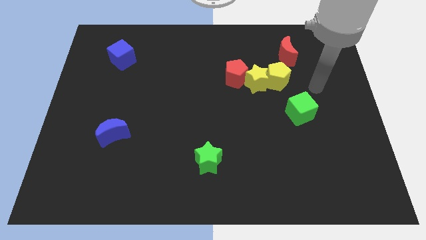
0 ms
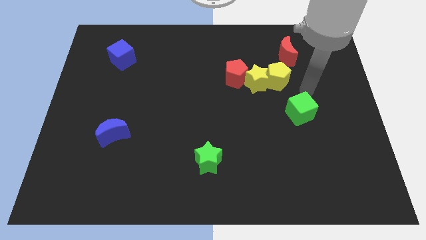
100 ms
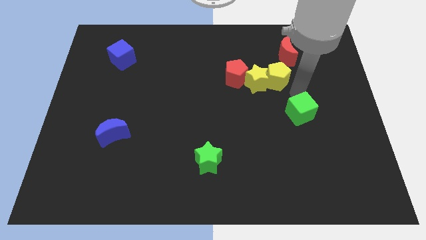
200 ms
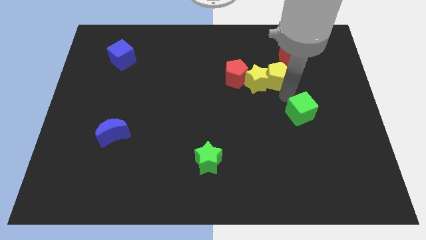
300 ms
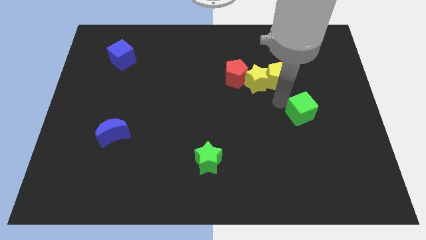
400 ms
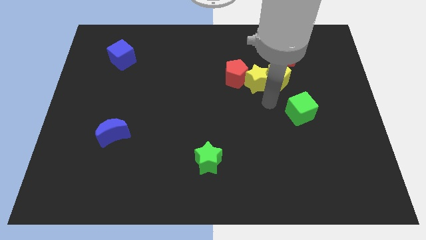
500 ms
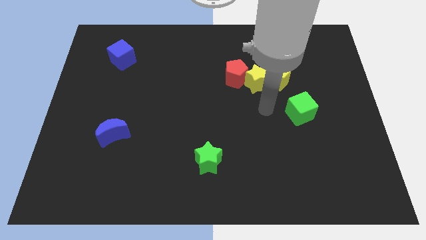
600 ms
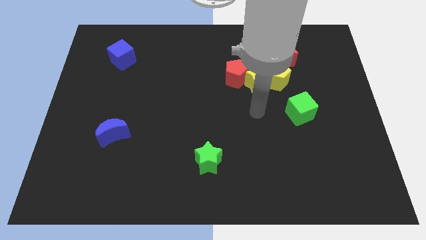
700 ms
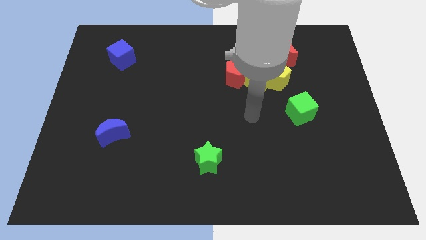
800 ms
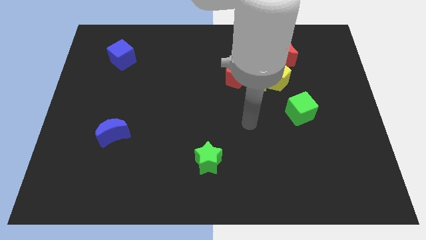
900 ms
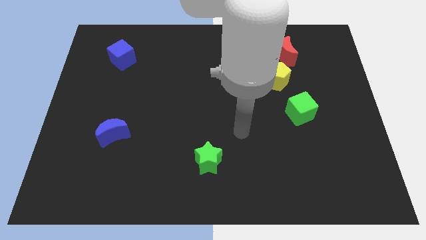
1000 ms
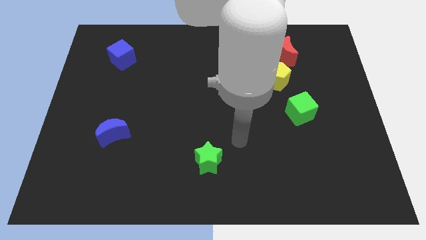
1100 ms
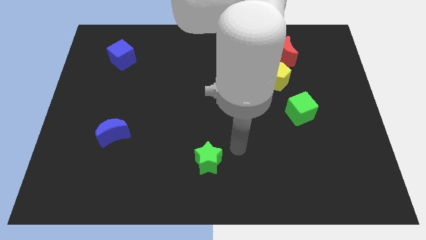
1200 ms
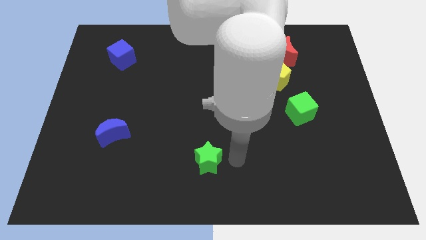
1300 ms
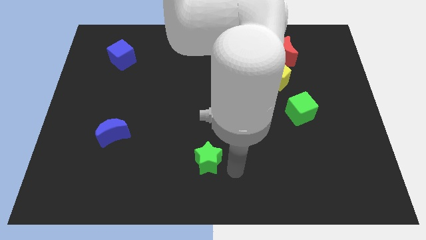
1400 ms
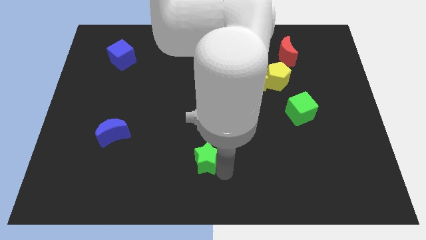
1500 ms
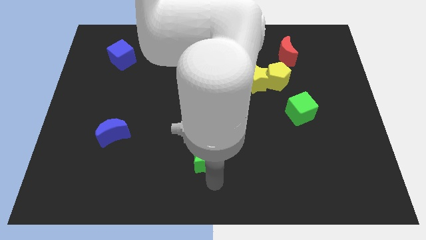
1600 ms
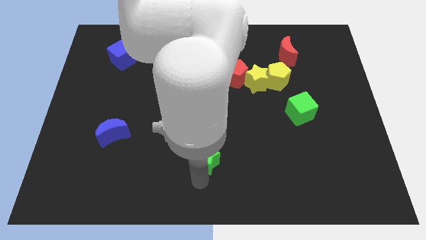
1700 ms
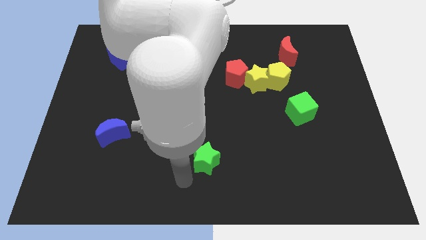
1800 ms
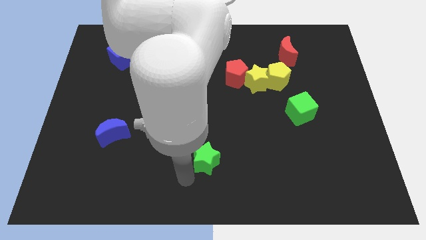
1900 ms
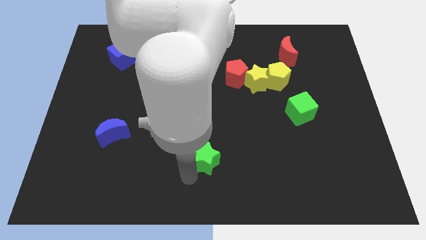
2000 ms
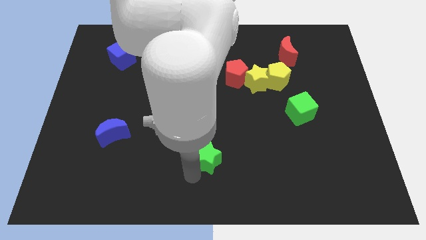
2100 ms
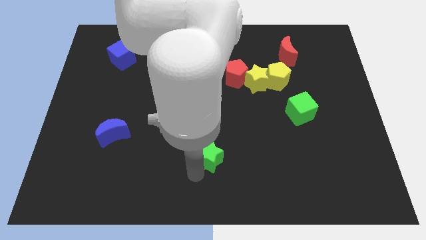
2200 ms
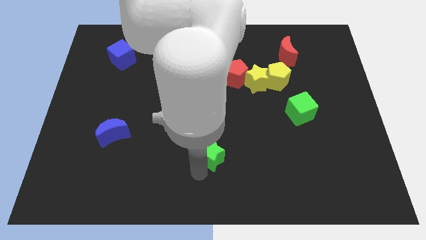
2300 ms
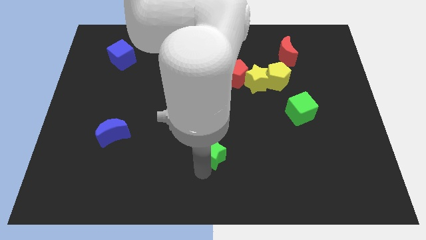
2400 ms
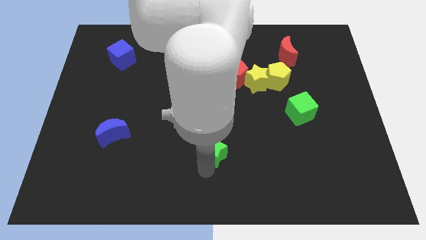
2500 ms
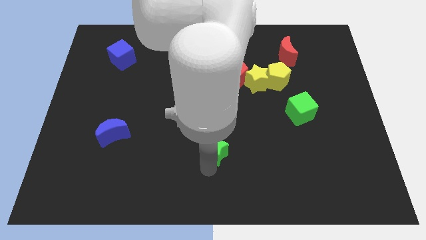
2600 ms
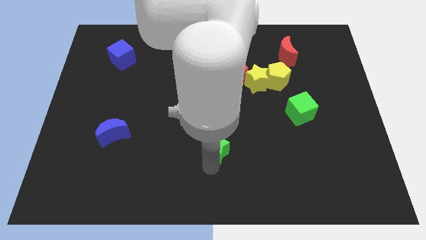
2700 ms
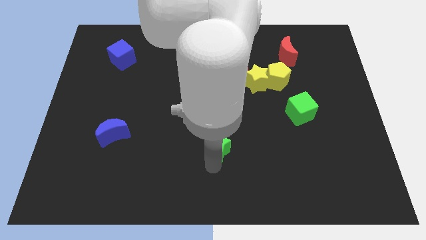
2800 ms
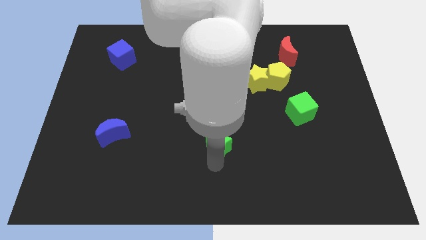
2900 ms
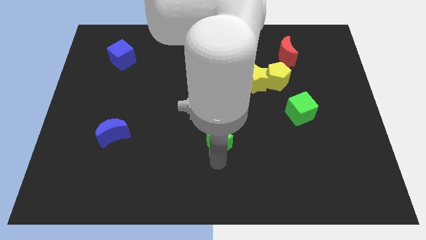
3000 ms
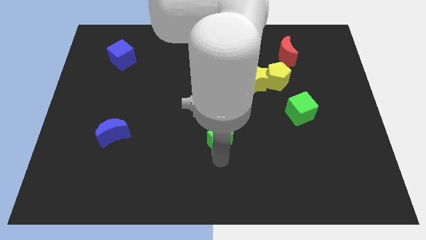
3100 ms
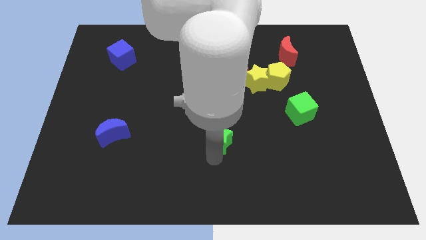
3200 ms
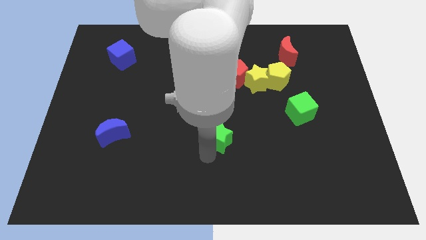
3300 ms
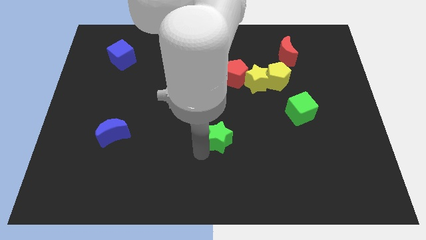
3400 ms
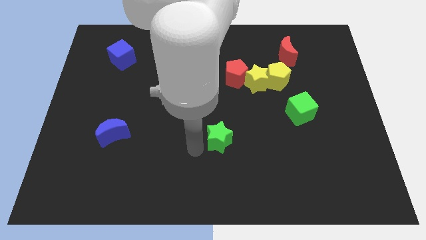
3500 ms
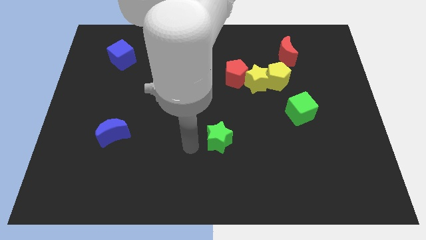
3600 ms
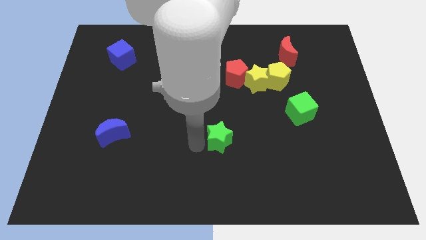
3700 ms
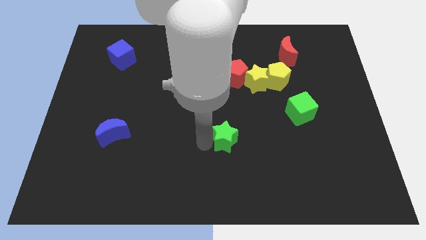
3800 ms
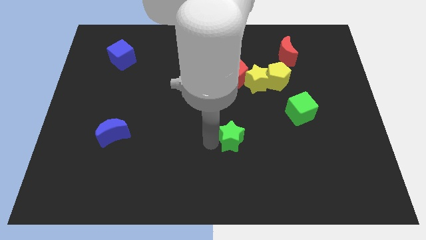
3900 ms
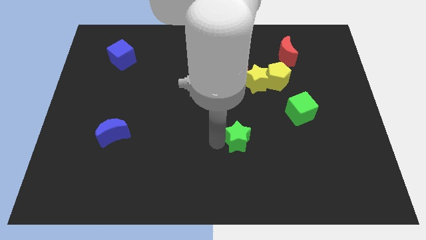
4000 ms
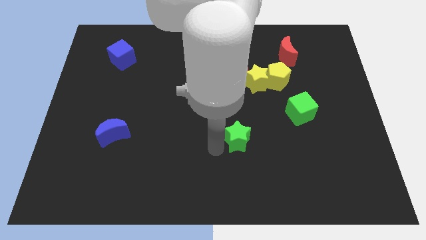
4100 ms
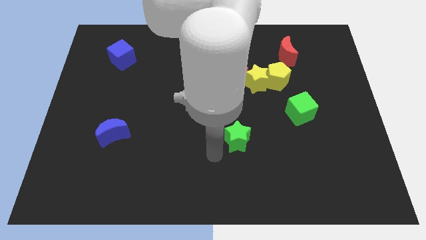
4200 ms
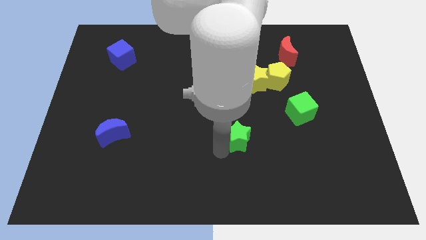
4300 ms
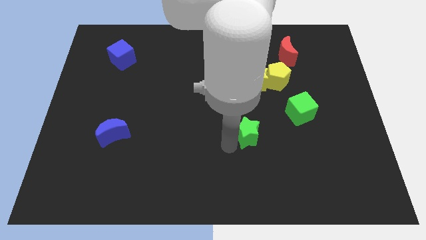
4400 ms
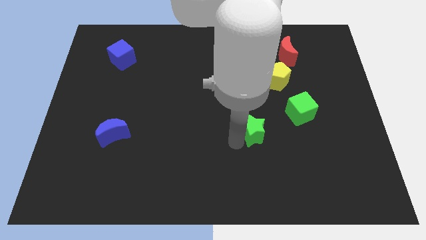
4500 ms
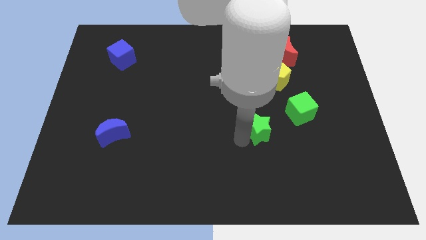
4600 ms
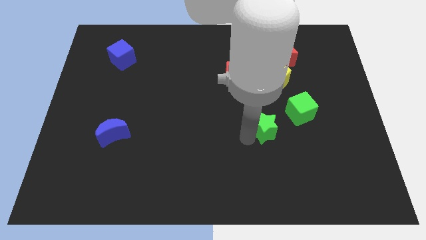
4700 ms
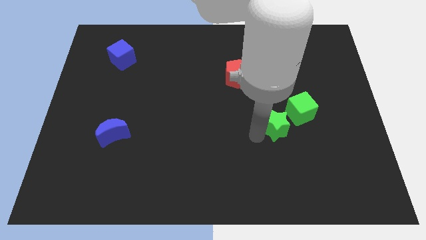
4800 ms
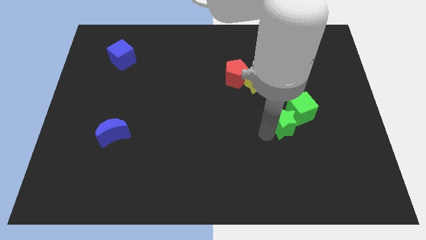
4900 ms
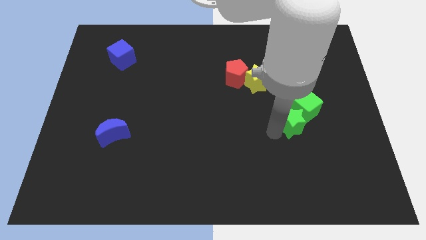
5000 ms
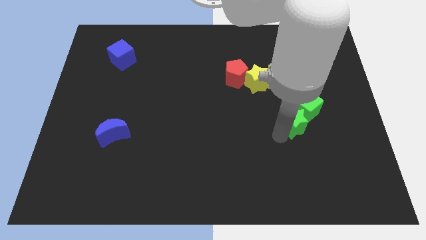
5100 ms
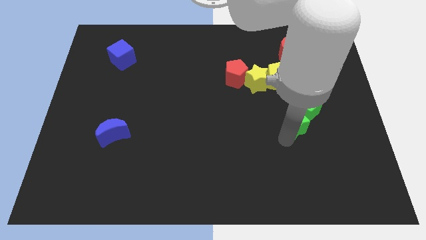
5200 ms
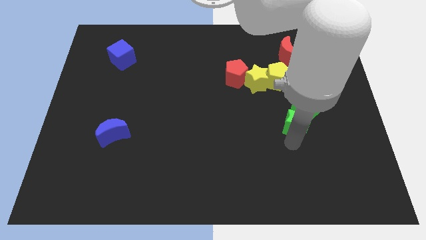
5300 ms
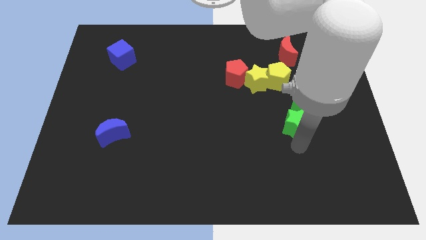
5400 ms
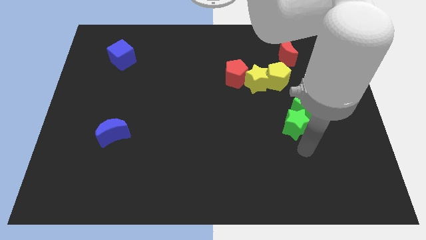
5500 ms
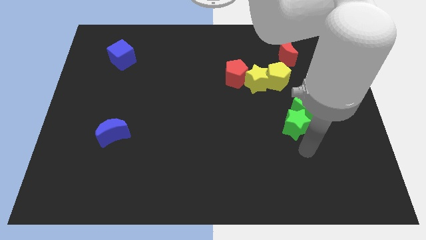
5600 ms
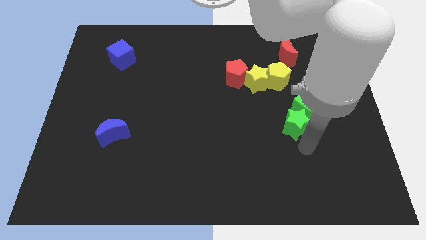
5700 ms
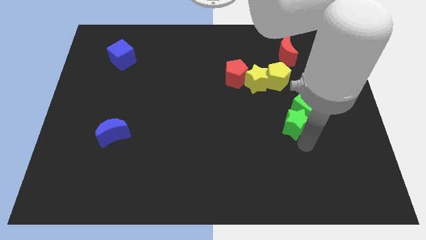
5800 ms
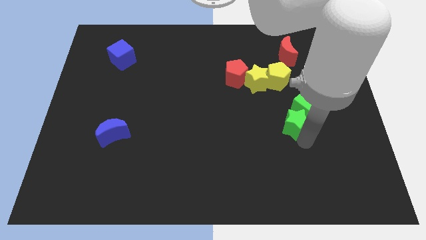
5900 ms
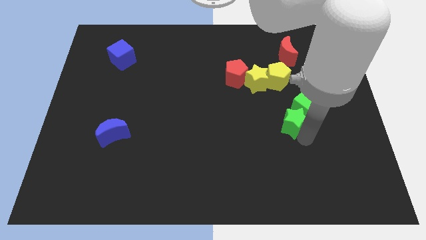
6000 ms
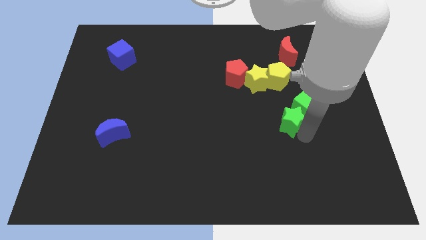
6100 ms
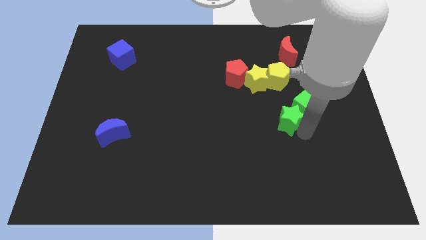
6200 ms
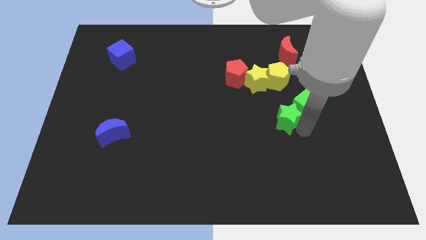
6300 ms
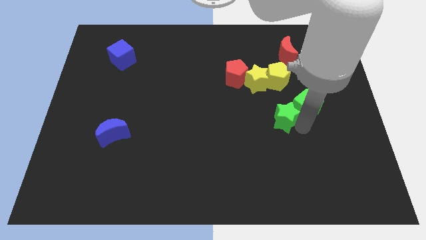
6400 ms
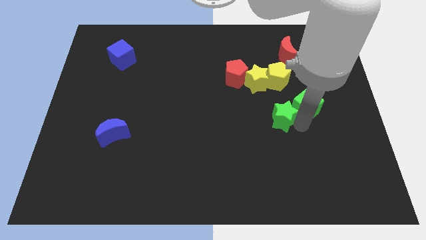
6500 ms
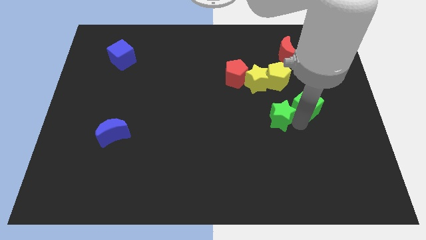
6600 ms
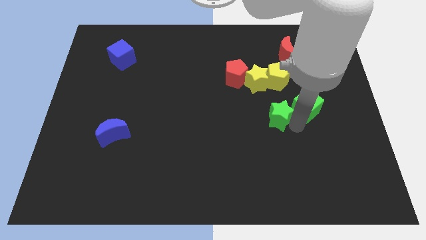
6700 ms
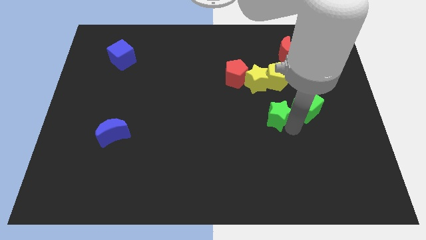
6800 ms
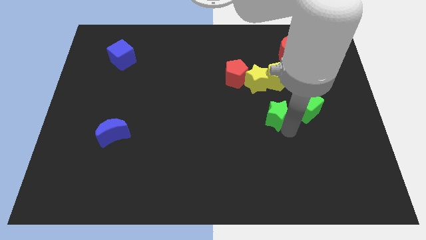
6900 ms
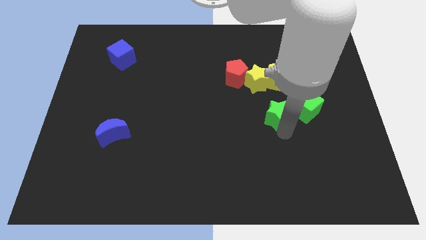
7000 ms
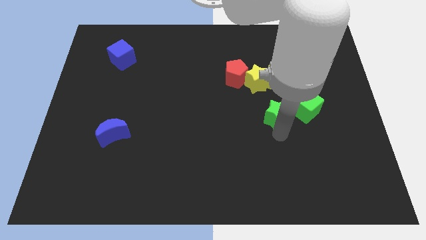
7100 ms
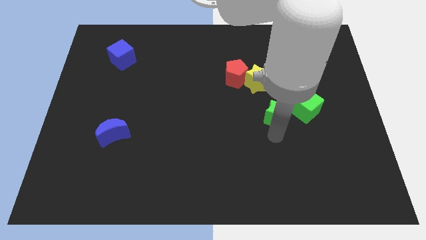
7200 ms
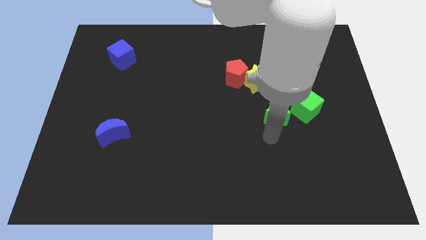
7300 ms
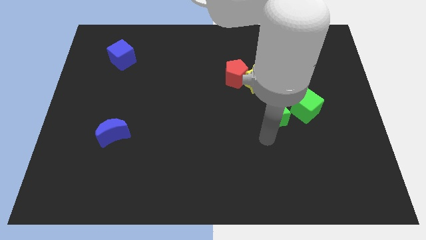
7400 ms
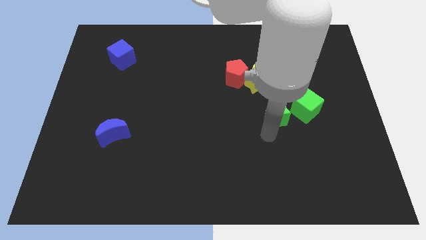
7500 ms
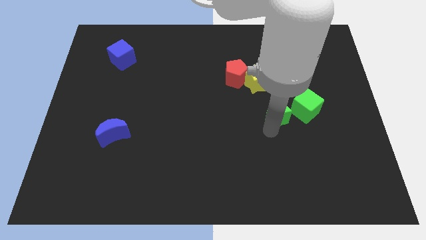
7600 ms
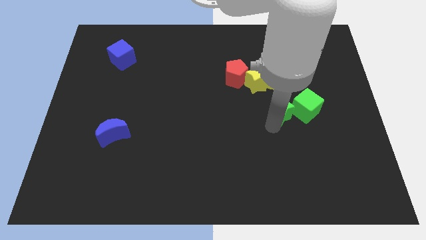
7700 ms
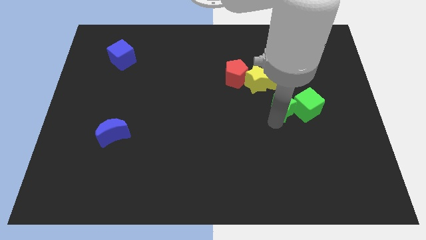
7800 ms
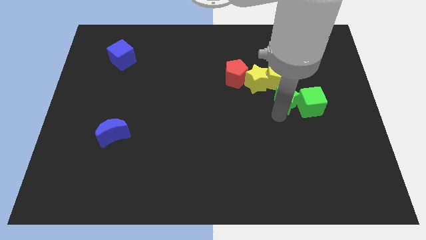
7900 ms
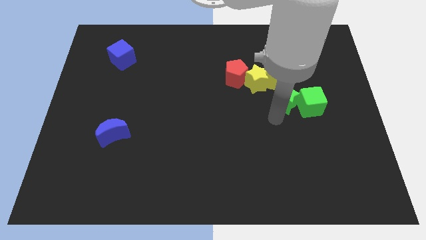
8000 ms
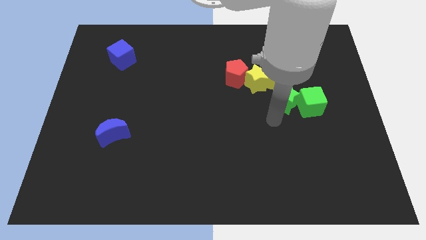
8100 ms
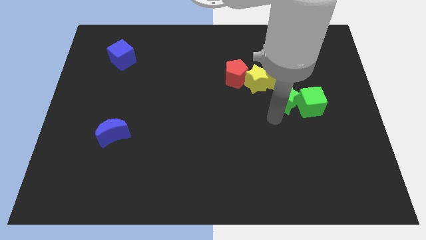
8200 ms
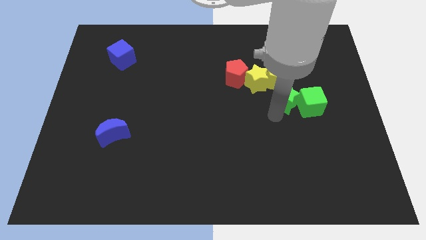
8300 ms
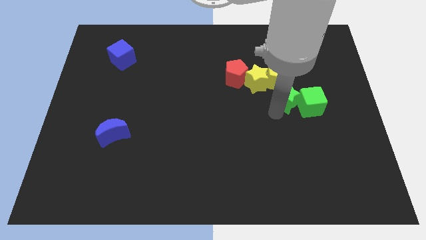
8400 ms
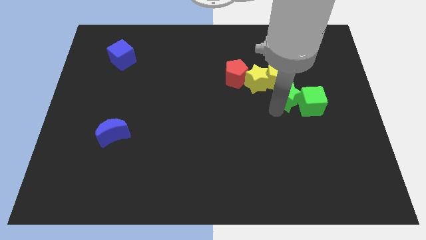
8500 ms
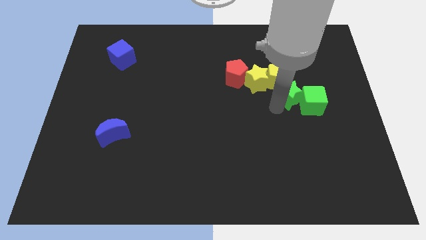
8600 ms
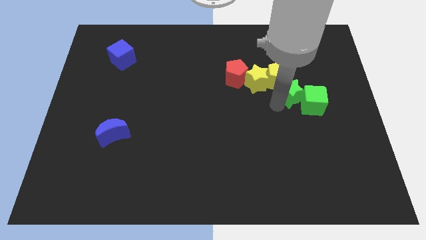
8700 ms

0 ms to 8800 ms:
push the green star to the right of the yellow star
